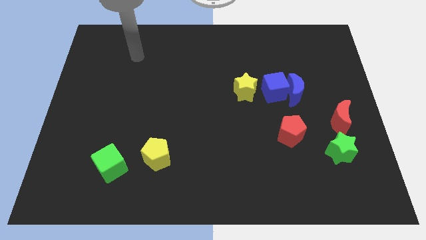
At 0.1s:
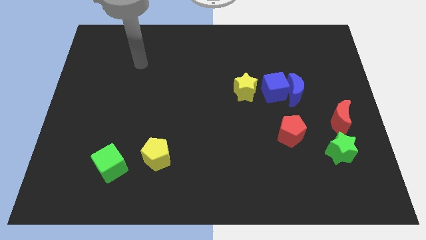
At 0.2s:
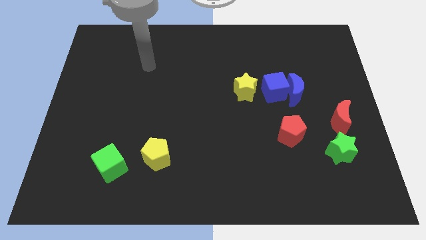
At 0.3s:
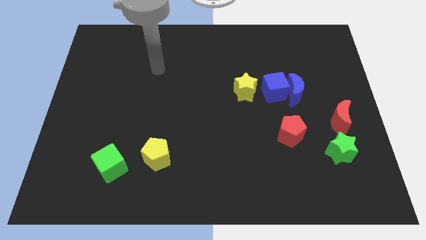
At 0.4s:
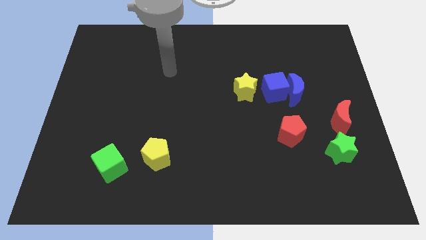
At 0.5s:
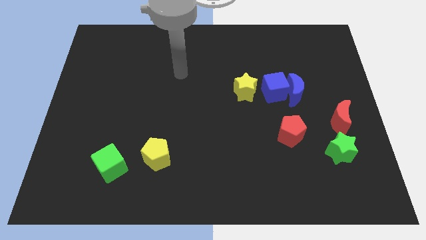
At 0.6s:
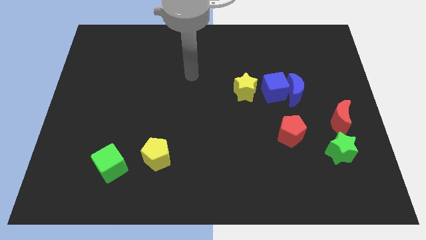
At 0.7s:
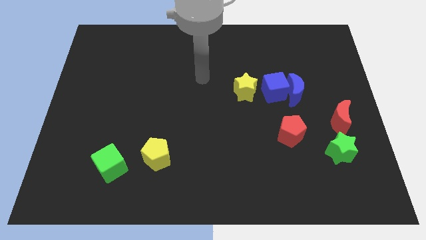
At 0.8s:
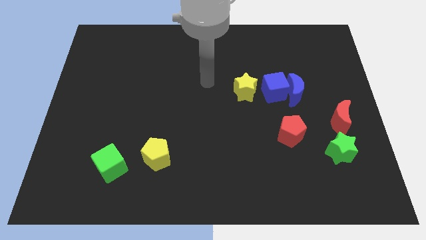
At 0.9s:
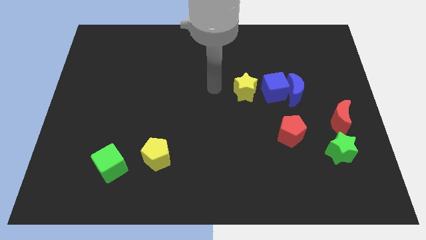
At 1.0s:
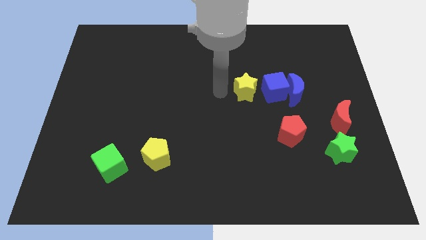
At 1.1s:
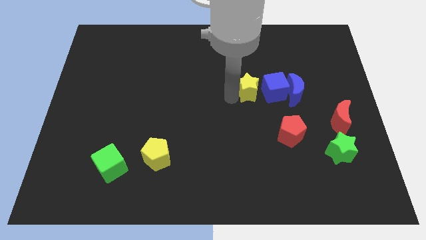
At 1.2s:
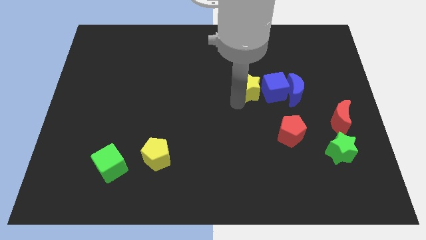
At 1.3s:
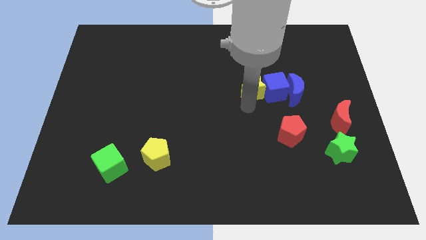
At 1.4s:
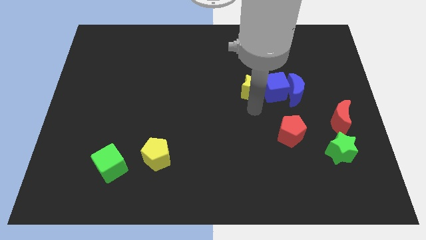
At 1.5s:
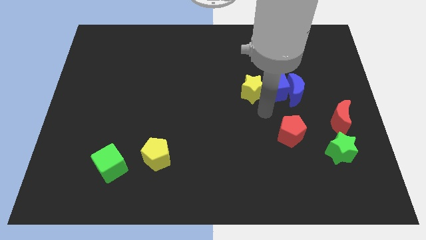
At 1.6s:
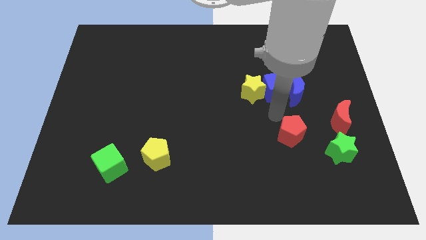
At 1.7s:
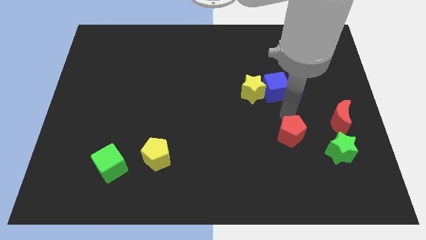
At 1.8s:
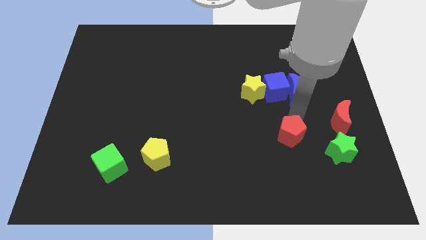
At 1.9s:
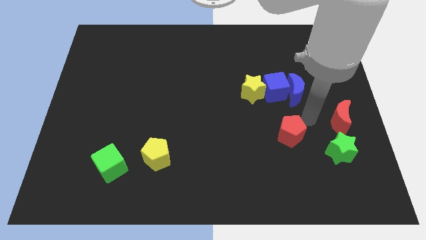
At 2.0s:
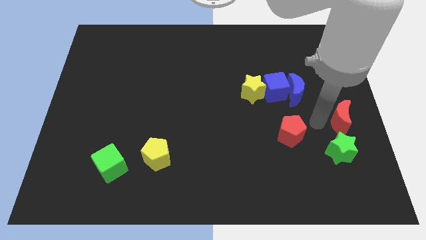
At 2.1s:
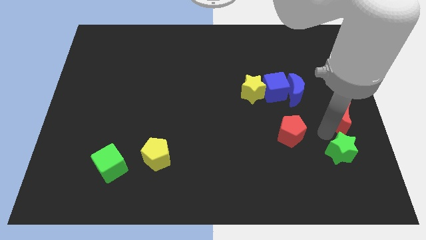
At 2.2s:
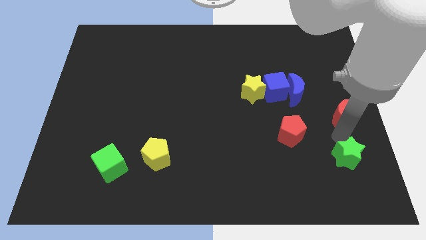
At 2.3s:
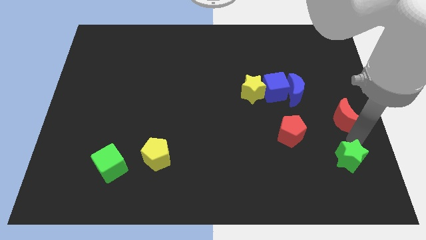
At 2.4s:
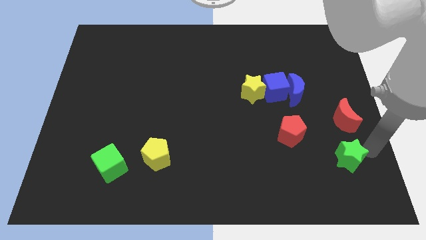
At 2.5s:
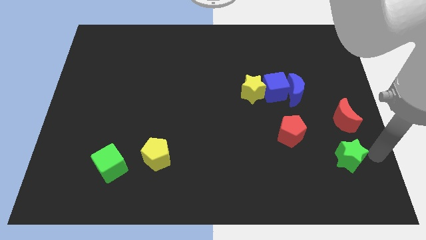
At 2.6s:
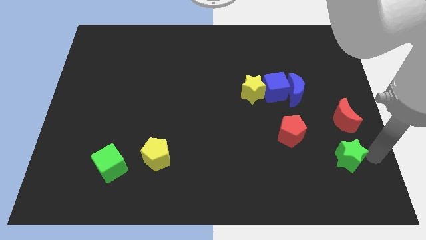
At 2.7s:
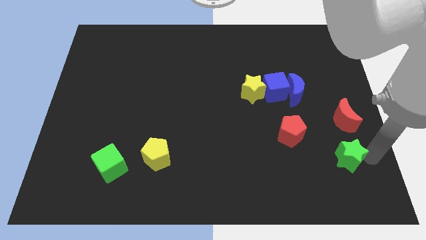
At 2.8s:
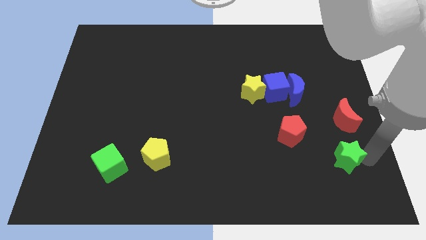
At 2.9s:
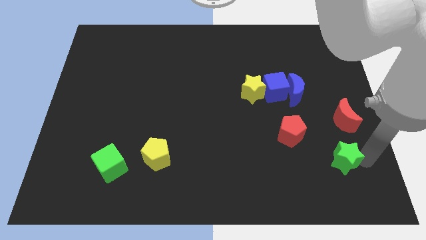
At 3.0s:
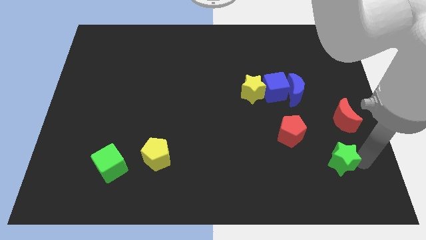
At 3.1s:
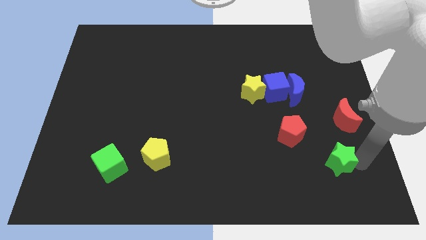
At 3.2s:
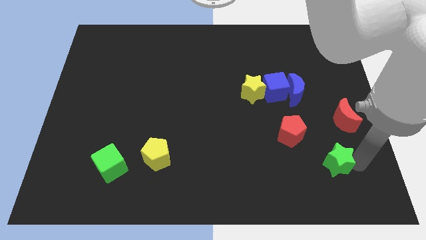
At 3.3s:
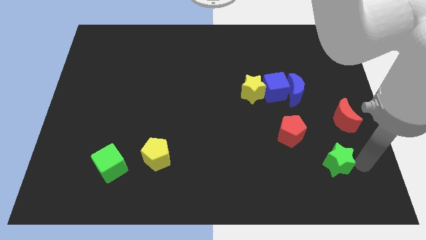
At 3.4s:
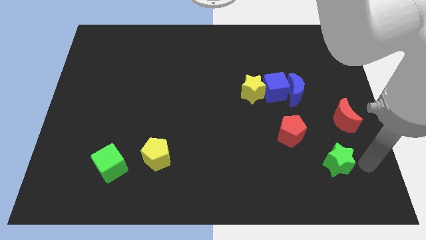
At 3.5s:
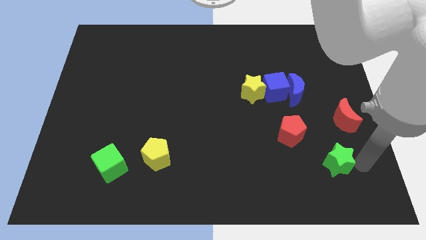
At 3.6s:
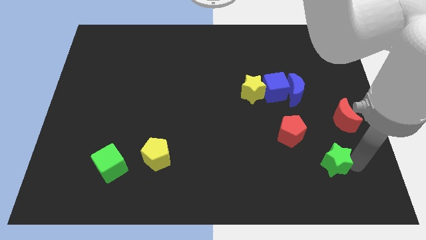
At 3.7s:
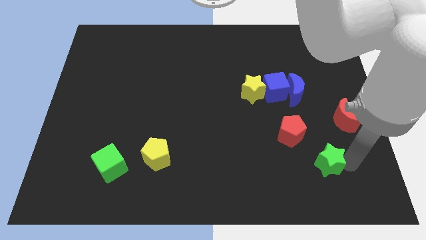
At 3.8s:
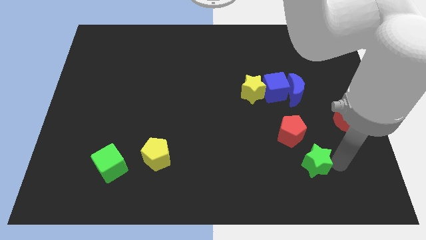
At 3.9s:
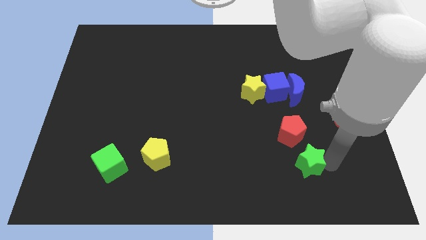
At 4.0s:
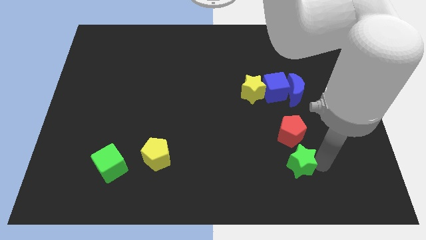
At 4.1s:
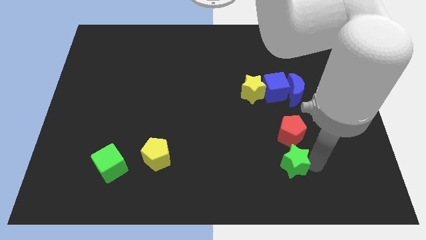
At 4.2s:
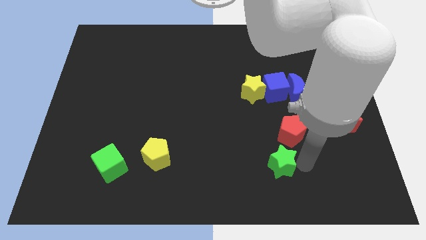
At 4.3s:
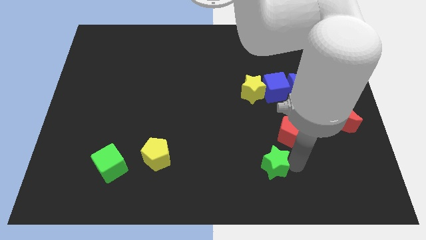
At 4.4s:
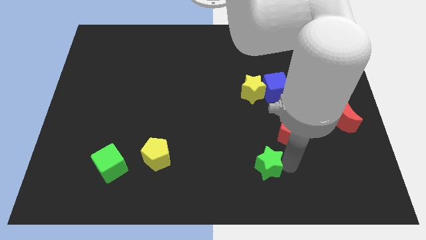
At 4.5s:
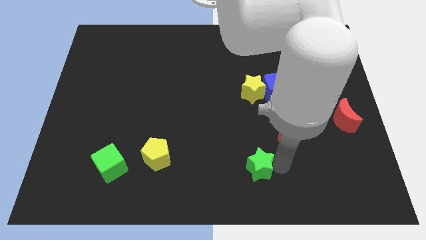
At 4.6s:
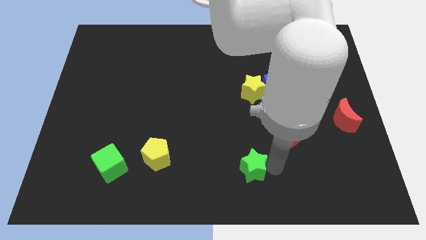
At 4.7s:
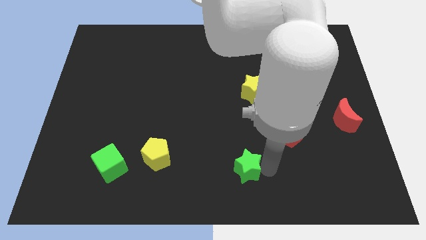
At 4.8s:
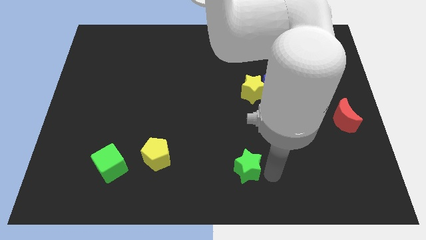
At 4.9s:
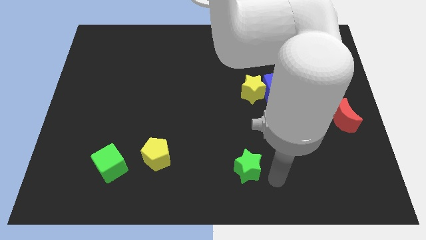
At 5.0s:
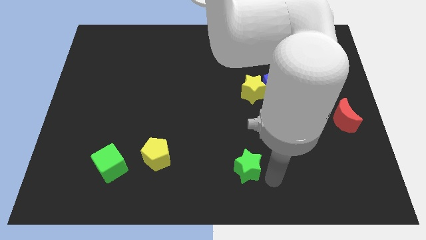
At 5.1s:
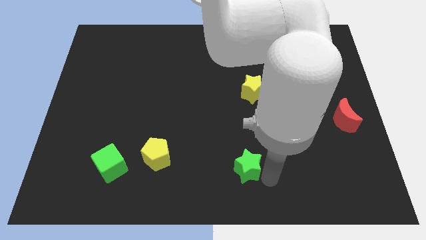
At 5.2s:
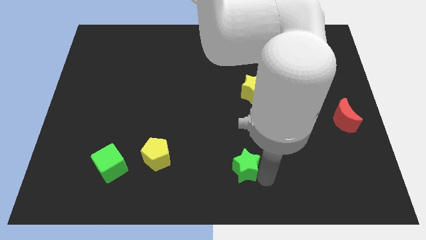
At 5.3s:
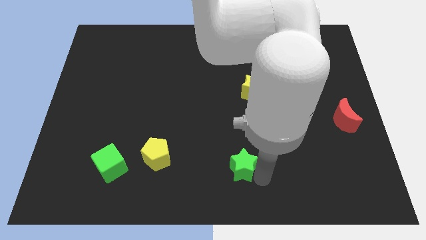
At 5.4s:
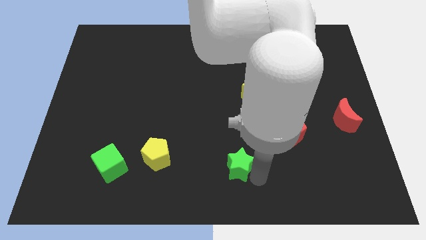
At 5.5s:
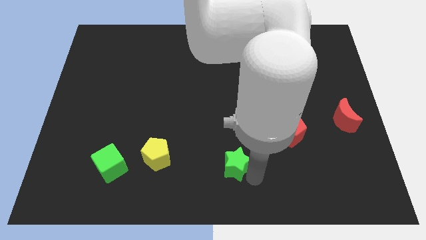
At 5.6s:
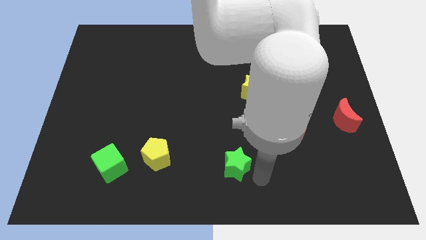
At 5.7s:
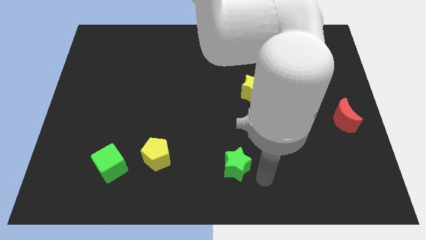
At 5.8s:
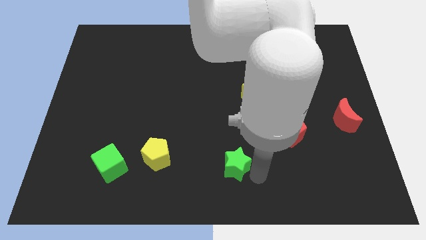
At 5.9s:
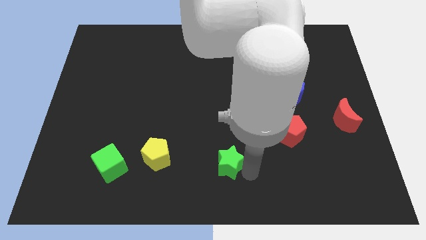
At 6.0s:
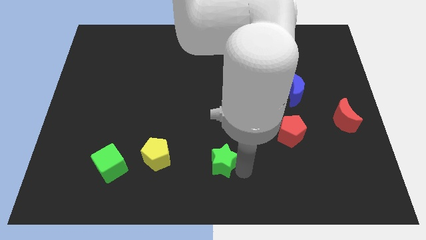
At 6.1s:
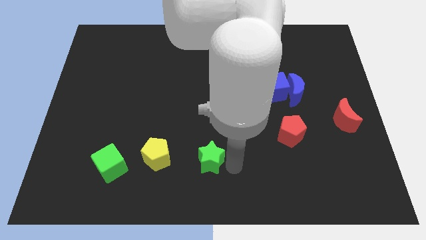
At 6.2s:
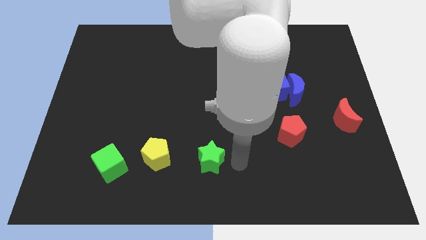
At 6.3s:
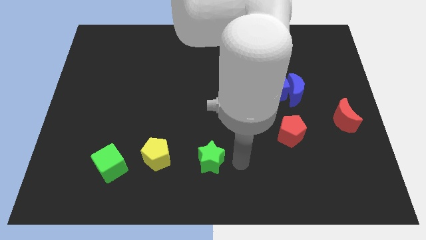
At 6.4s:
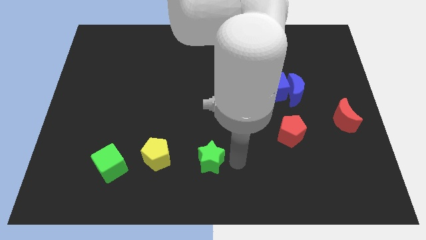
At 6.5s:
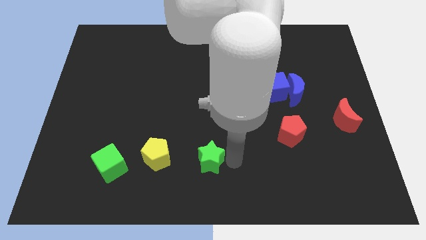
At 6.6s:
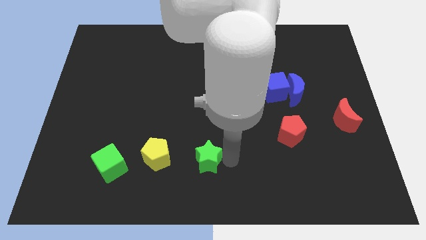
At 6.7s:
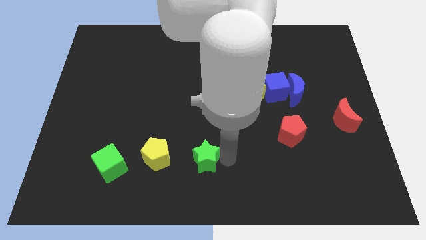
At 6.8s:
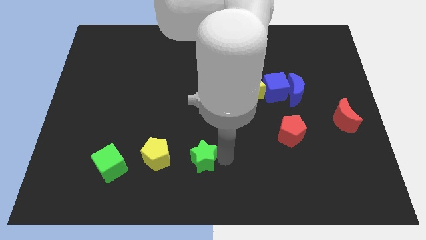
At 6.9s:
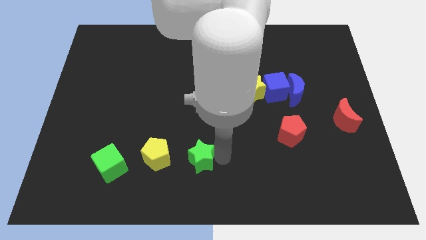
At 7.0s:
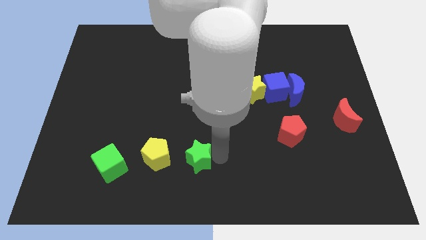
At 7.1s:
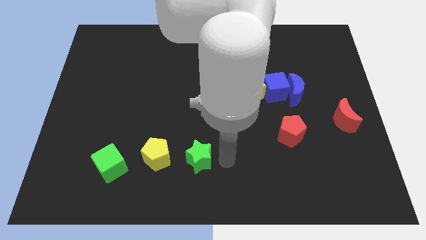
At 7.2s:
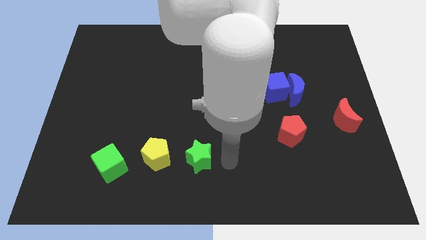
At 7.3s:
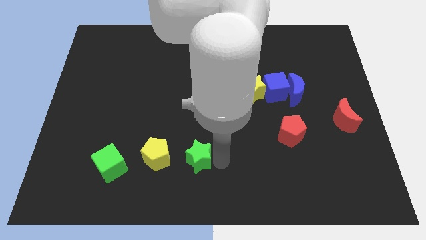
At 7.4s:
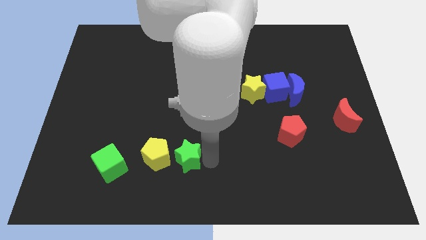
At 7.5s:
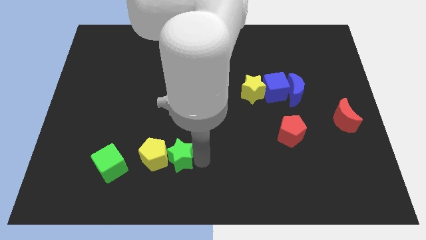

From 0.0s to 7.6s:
push the green star to the yellow pentagon

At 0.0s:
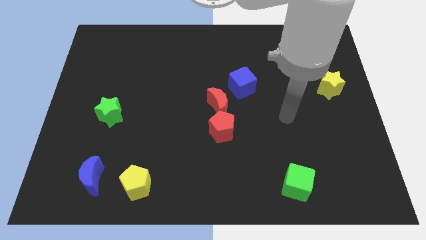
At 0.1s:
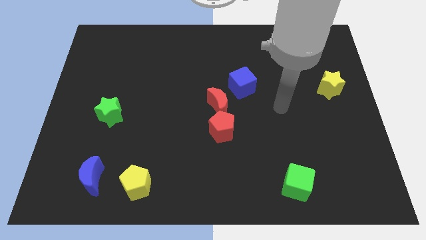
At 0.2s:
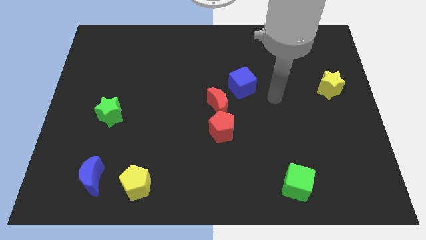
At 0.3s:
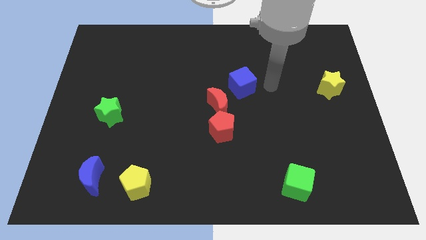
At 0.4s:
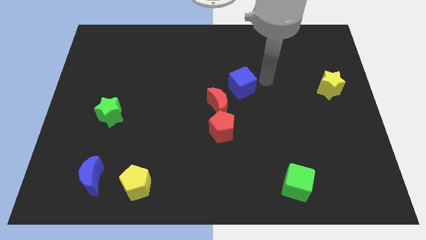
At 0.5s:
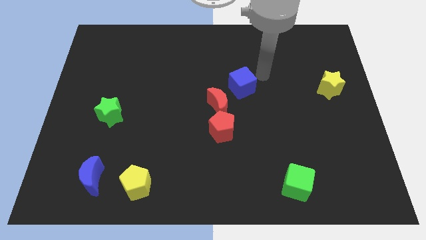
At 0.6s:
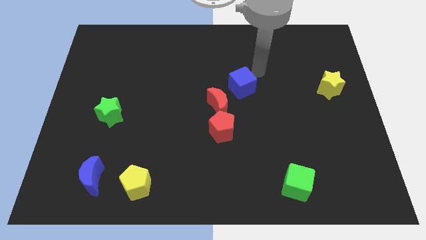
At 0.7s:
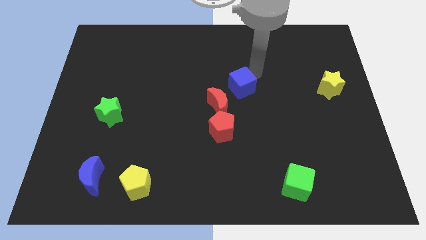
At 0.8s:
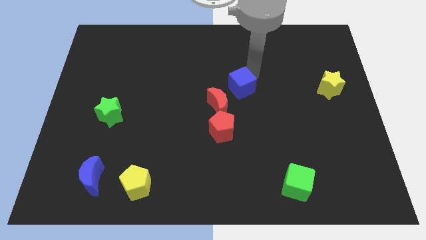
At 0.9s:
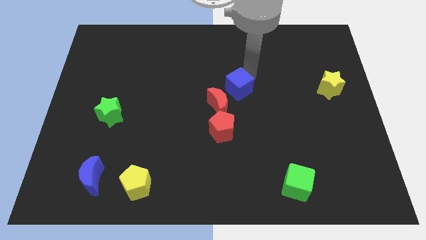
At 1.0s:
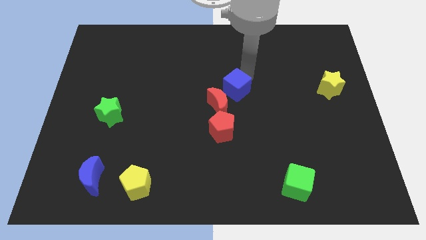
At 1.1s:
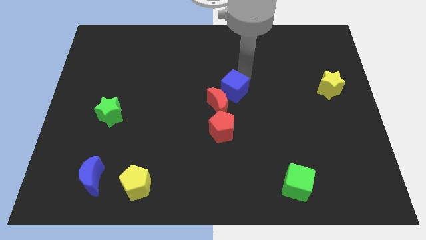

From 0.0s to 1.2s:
push the blue cube towards the red moon
